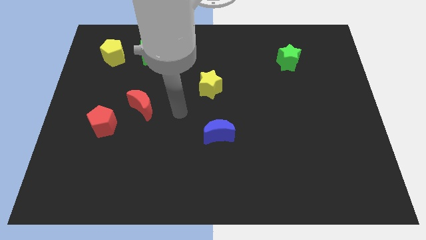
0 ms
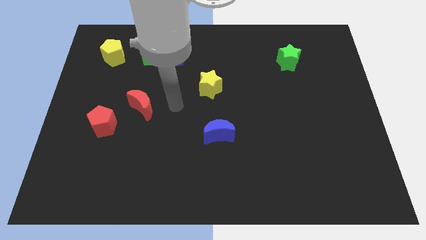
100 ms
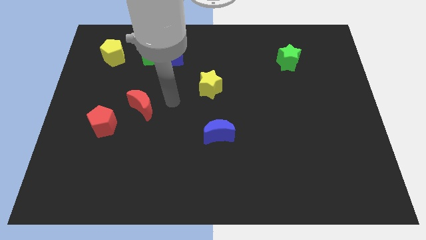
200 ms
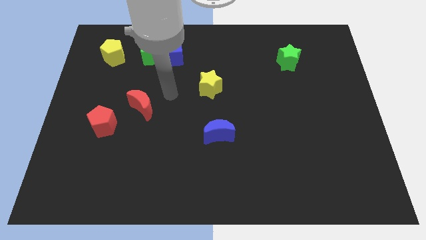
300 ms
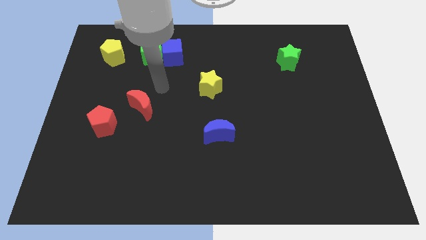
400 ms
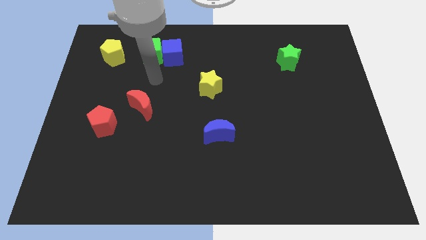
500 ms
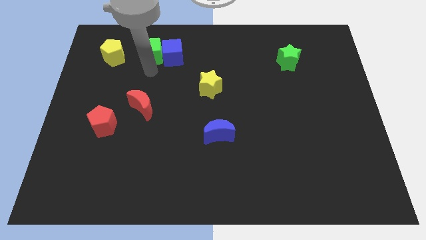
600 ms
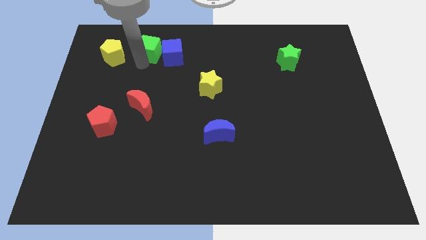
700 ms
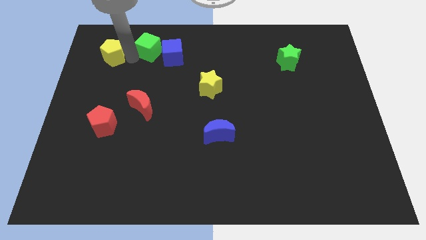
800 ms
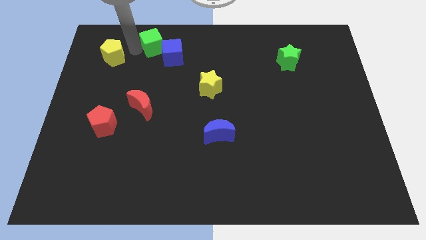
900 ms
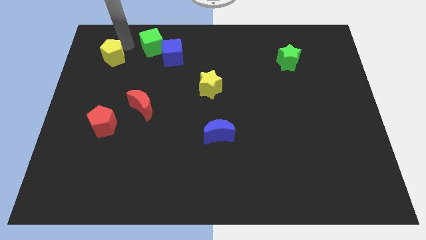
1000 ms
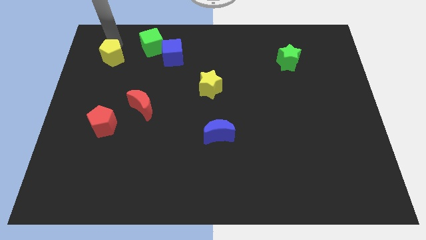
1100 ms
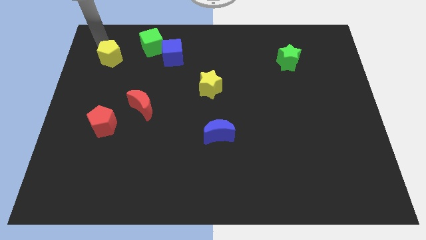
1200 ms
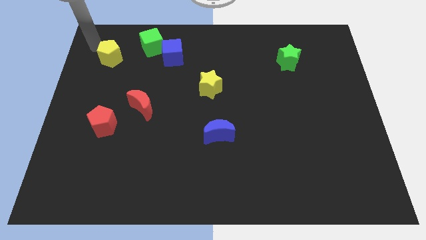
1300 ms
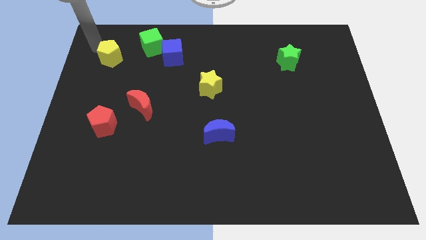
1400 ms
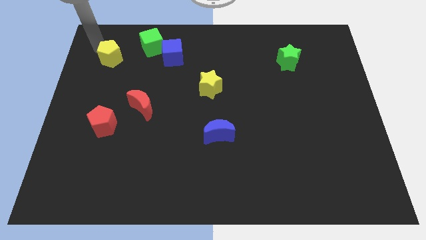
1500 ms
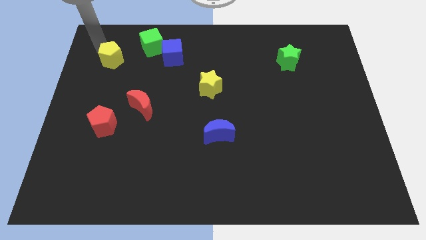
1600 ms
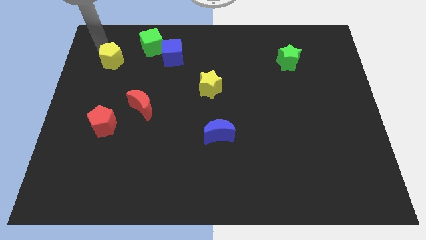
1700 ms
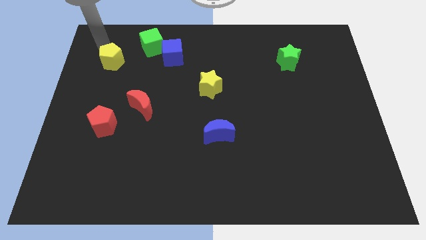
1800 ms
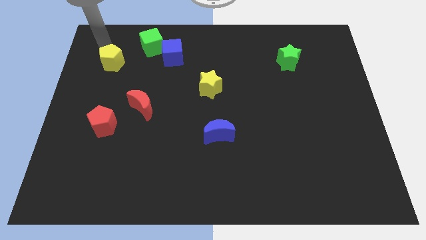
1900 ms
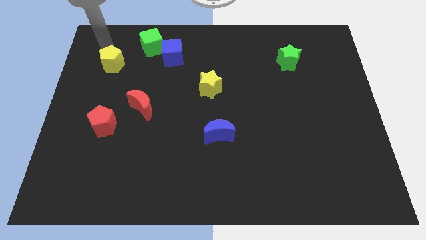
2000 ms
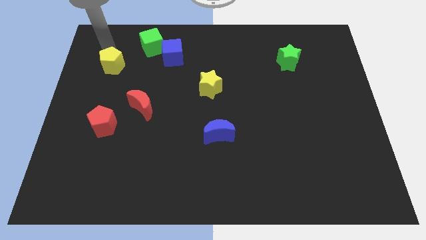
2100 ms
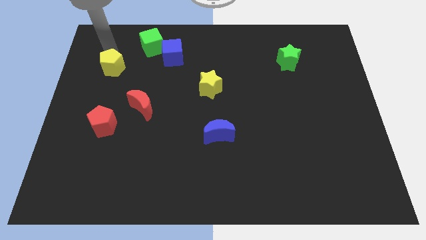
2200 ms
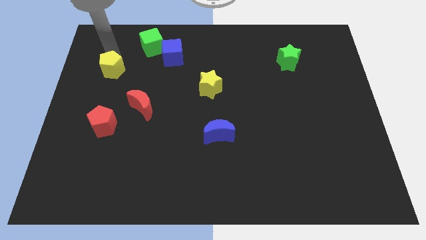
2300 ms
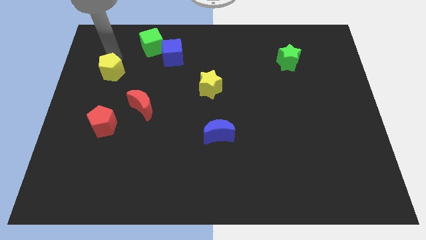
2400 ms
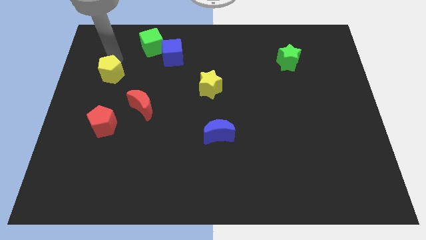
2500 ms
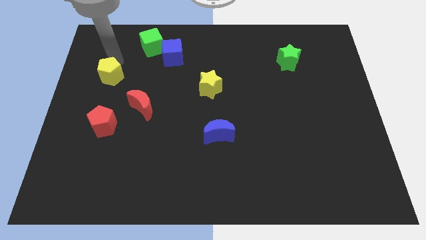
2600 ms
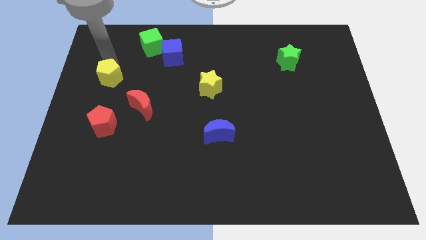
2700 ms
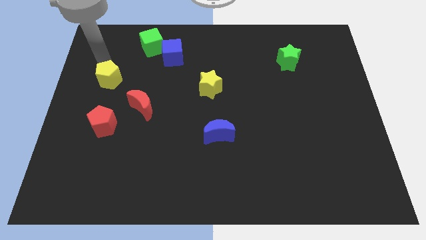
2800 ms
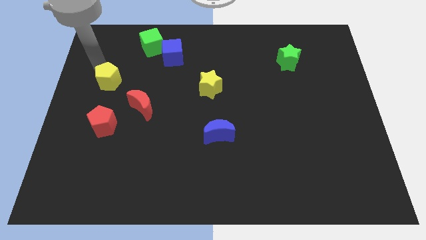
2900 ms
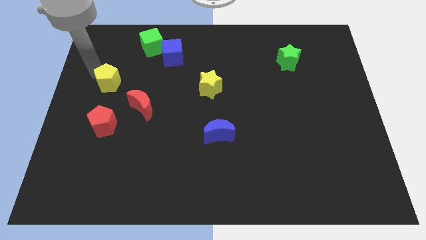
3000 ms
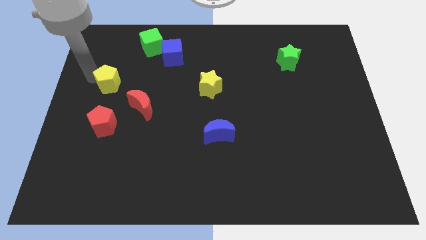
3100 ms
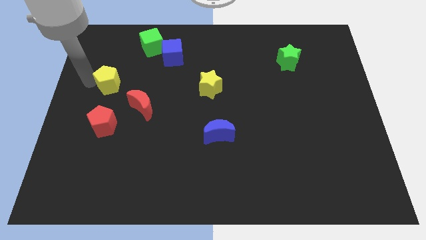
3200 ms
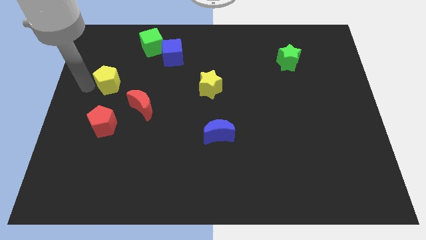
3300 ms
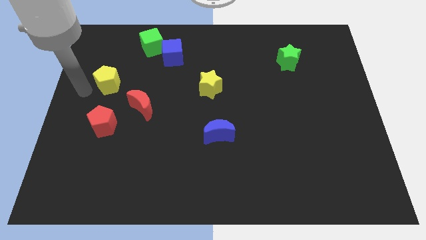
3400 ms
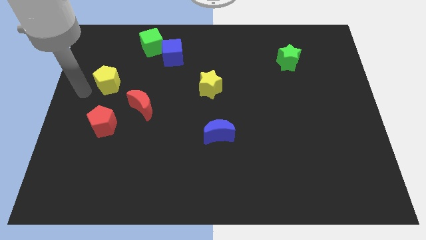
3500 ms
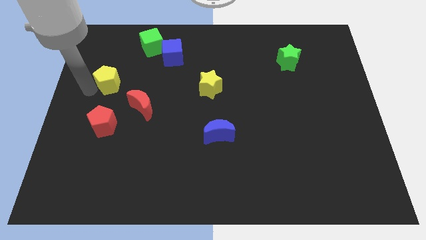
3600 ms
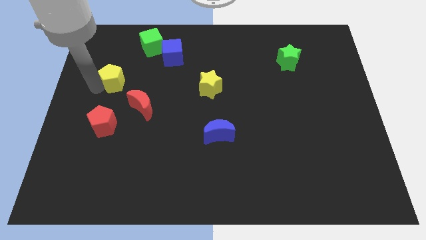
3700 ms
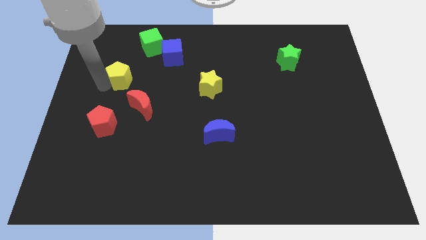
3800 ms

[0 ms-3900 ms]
slide the yellow pentagon somewhat down and right

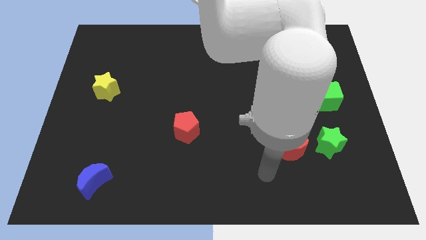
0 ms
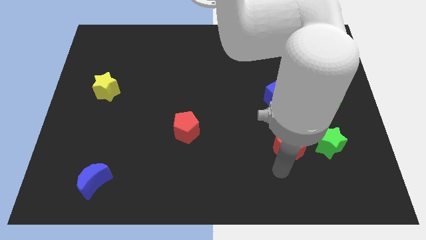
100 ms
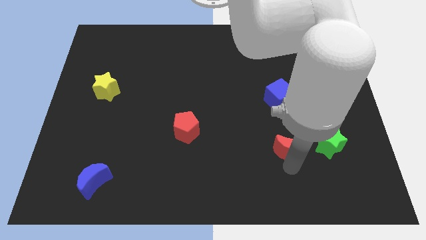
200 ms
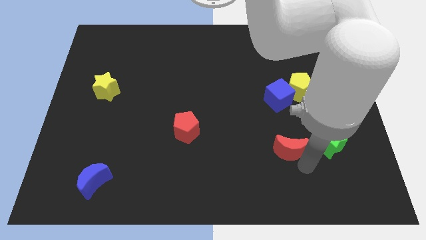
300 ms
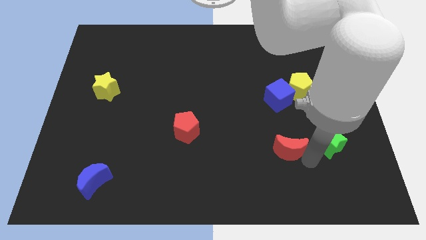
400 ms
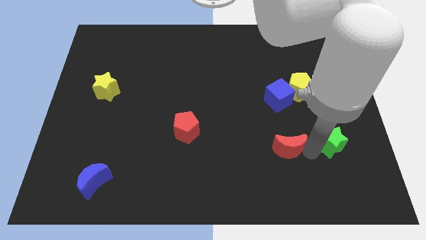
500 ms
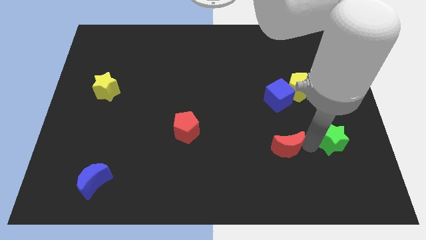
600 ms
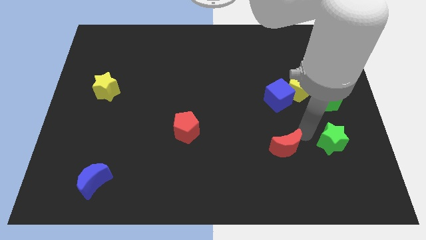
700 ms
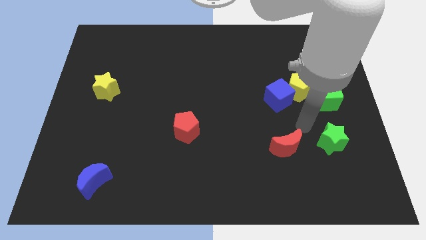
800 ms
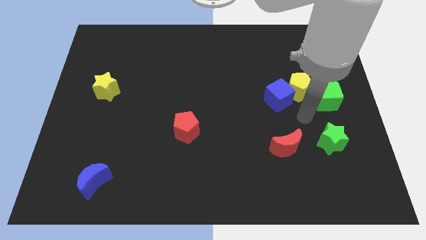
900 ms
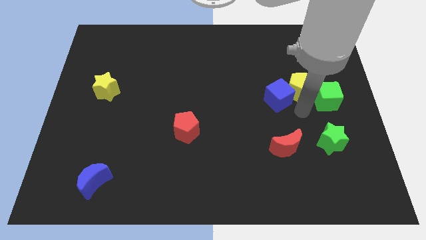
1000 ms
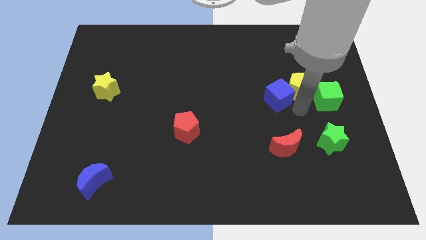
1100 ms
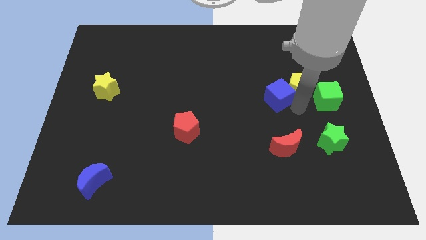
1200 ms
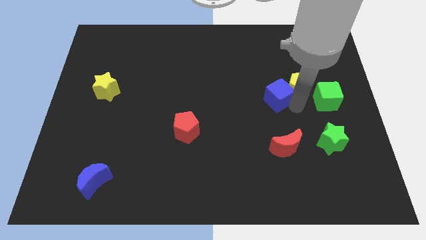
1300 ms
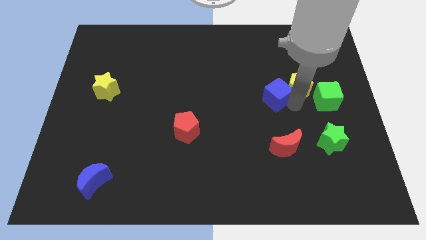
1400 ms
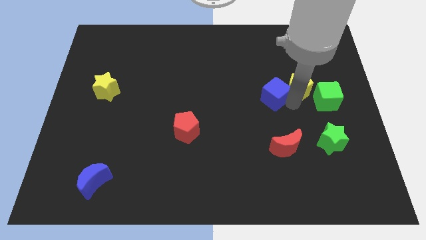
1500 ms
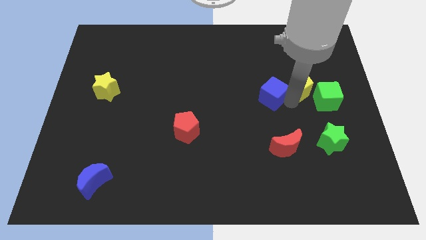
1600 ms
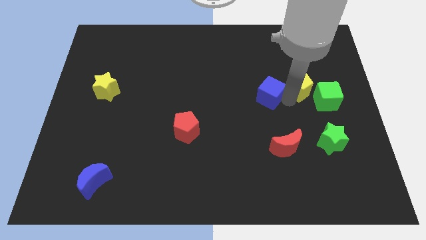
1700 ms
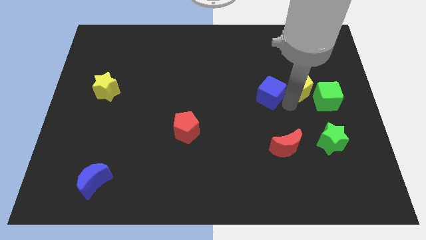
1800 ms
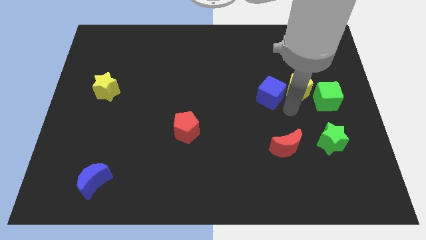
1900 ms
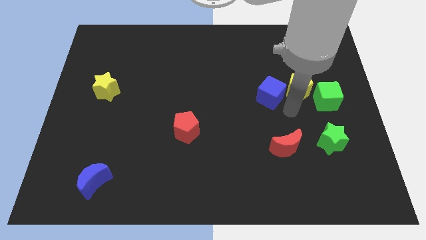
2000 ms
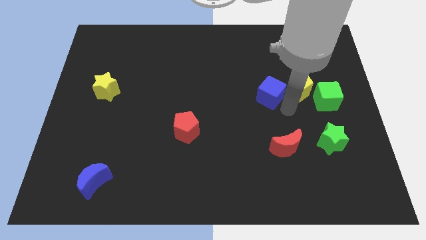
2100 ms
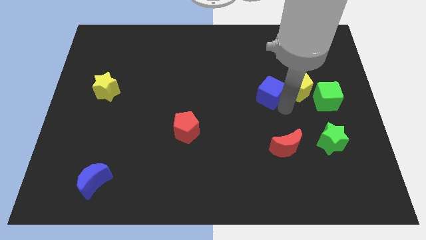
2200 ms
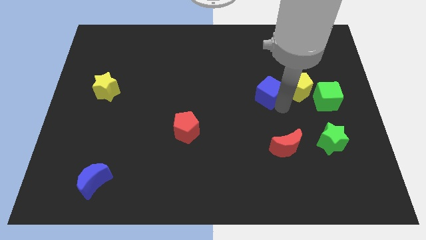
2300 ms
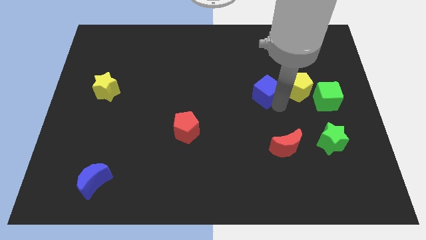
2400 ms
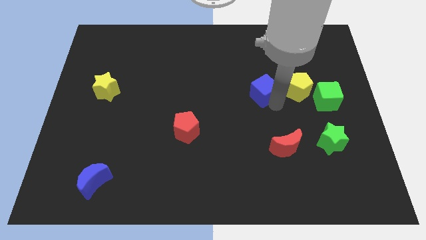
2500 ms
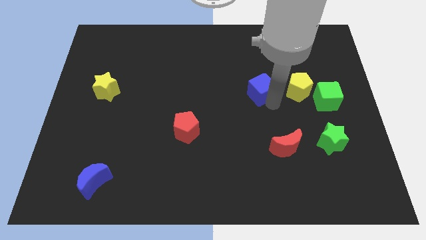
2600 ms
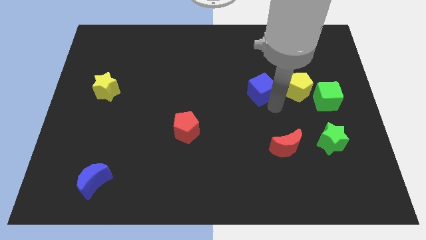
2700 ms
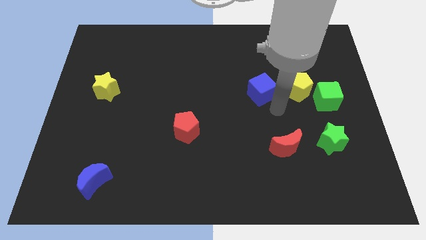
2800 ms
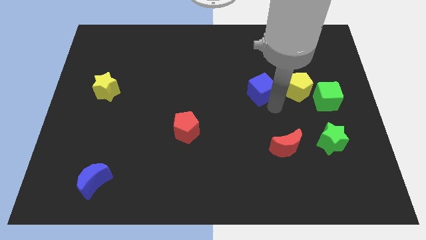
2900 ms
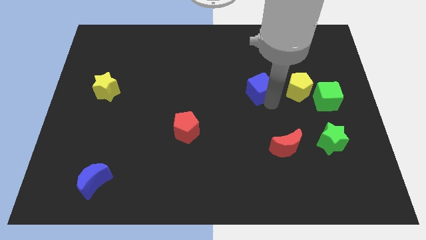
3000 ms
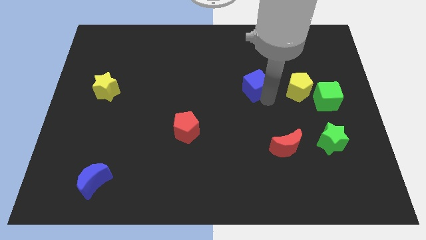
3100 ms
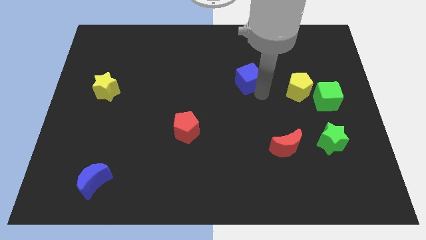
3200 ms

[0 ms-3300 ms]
slide the blue cube a little bit up and then left

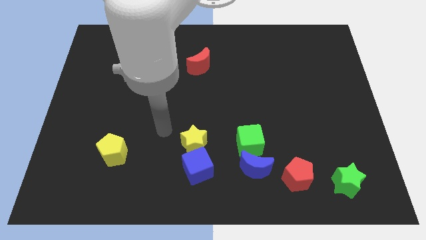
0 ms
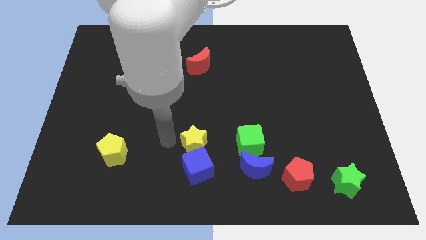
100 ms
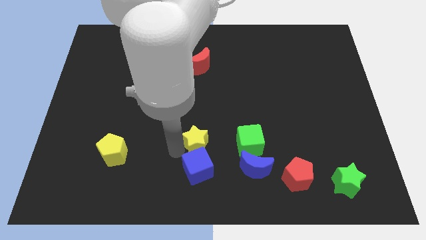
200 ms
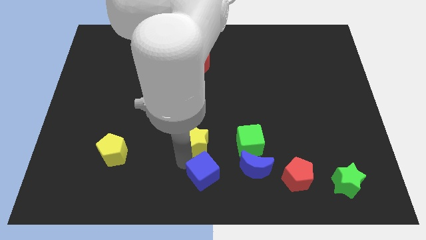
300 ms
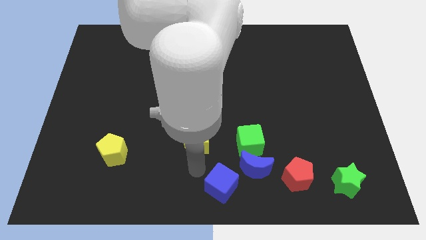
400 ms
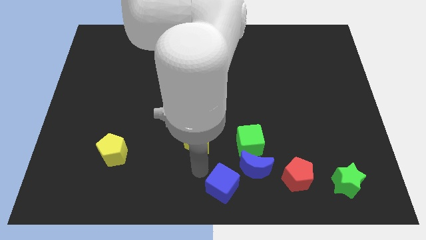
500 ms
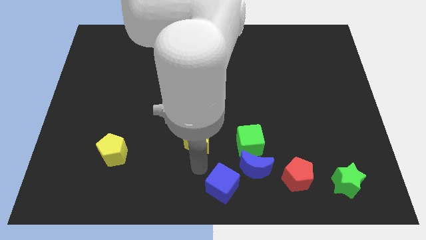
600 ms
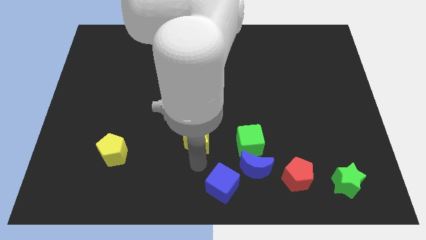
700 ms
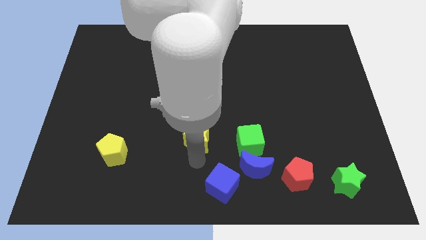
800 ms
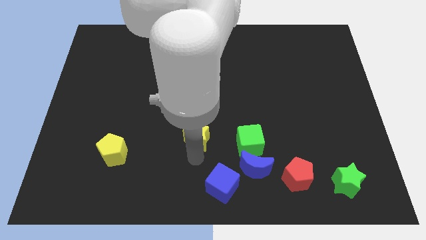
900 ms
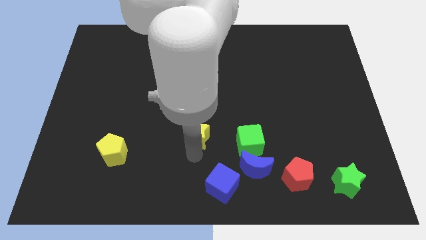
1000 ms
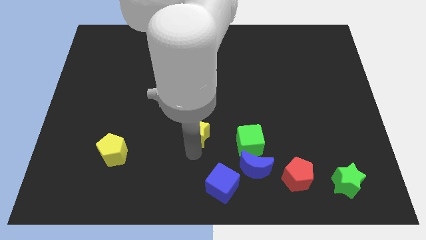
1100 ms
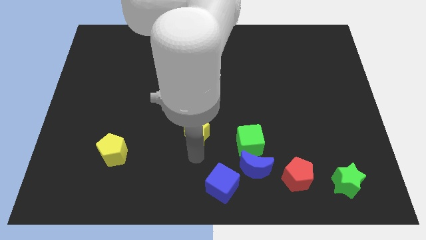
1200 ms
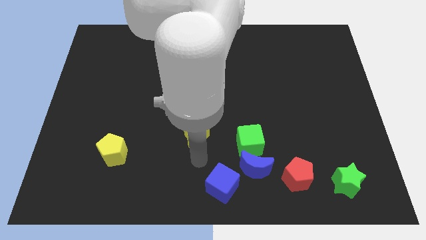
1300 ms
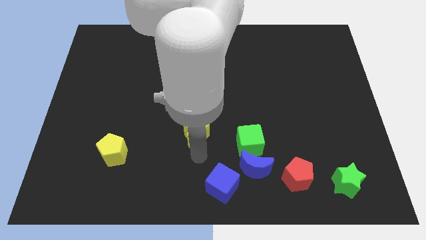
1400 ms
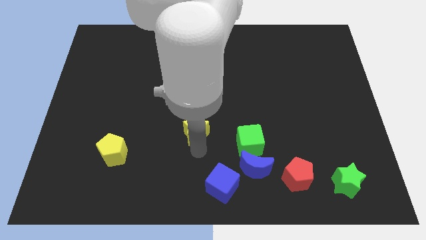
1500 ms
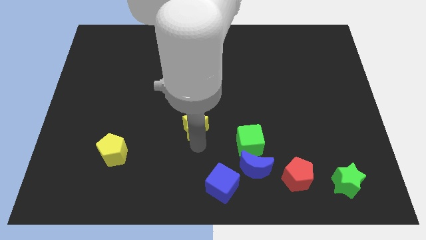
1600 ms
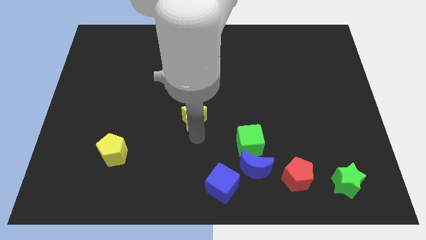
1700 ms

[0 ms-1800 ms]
slide the yellow star upwards a little
